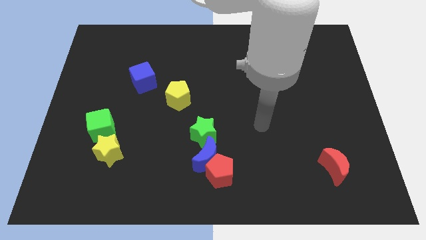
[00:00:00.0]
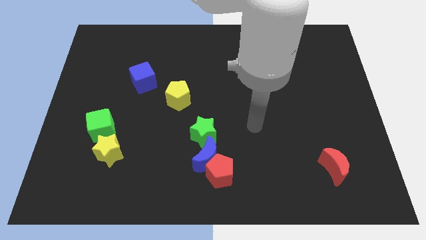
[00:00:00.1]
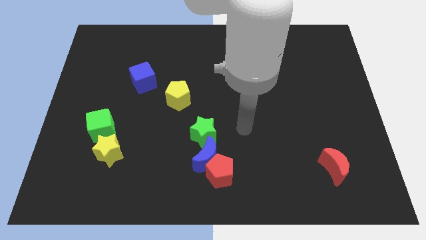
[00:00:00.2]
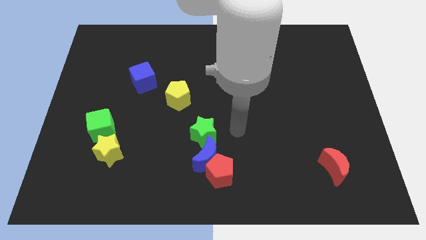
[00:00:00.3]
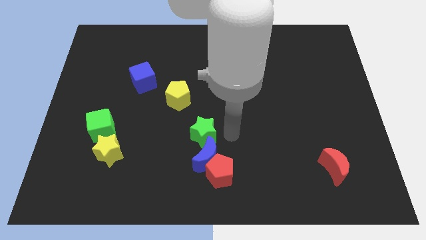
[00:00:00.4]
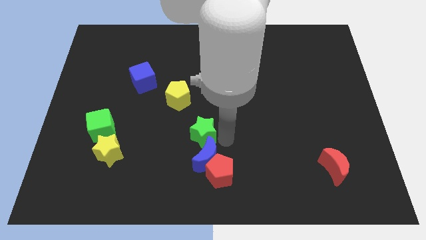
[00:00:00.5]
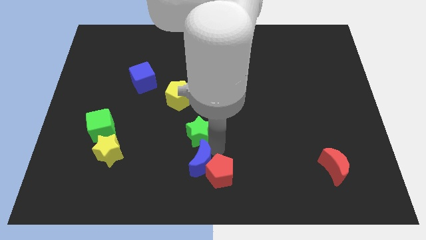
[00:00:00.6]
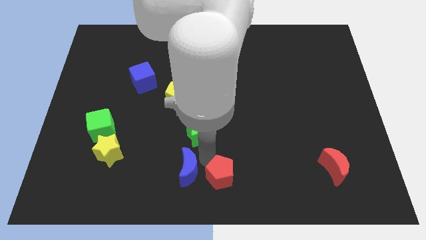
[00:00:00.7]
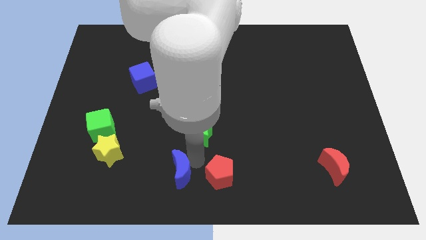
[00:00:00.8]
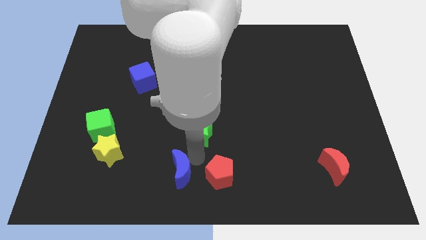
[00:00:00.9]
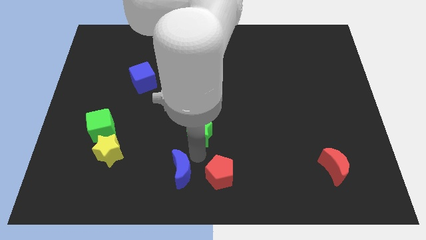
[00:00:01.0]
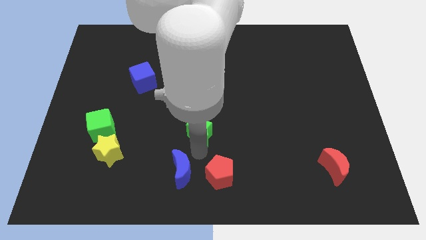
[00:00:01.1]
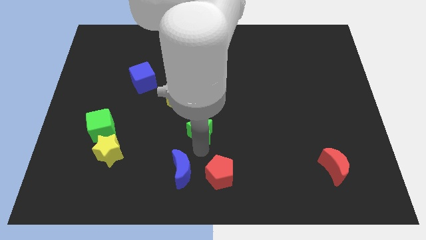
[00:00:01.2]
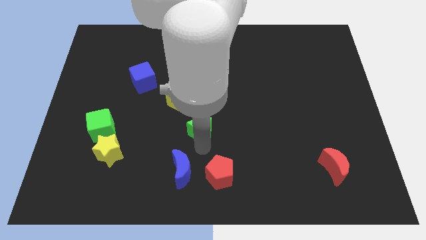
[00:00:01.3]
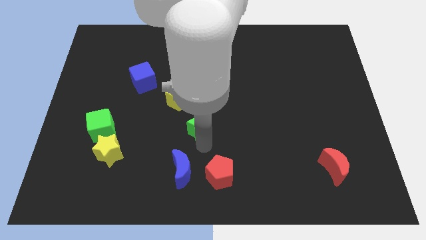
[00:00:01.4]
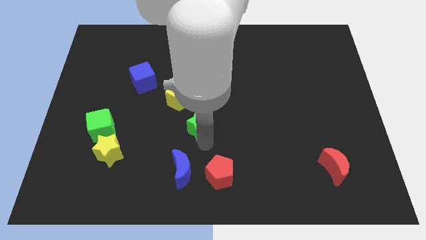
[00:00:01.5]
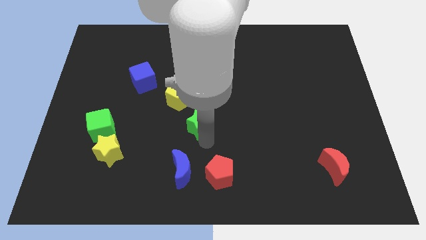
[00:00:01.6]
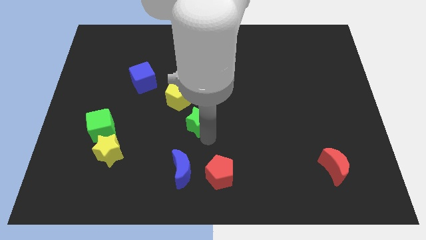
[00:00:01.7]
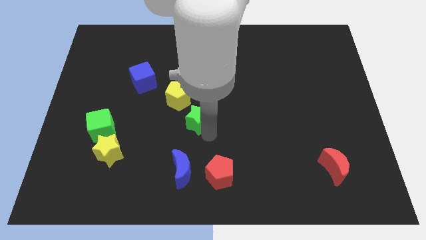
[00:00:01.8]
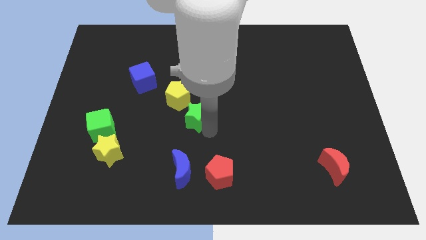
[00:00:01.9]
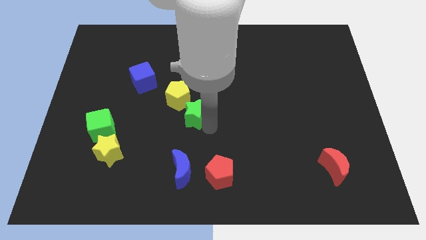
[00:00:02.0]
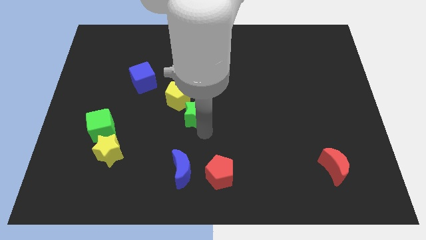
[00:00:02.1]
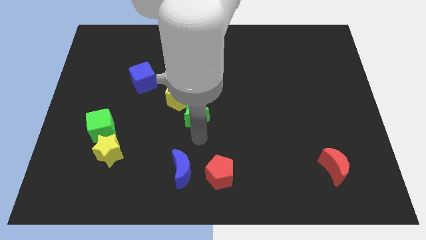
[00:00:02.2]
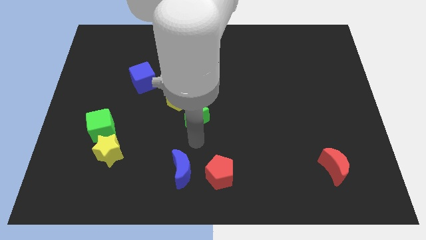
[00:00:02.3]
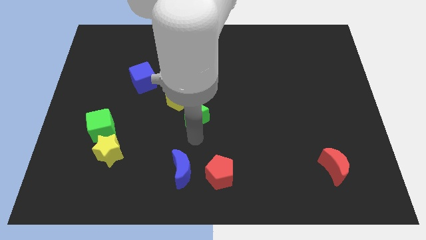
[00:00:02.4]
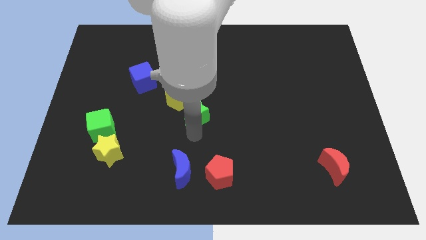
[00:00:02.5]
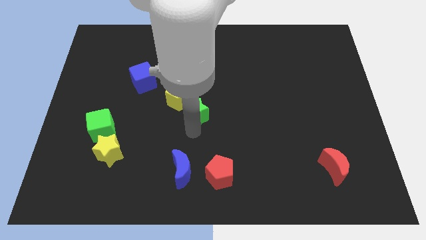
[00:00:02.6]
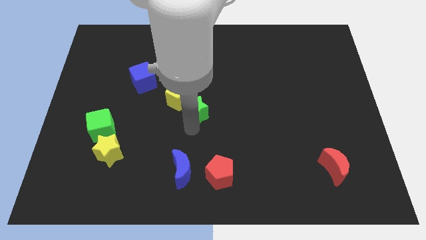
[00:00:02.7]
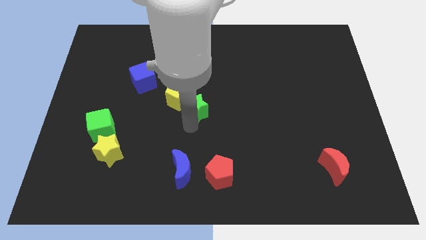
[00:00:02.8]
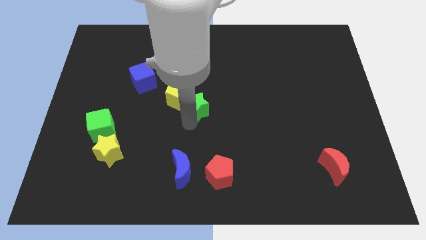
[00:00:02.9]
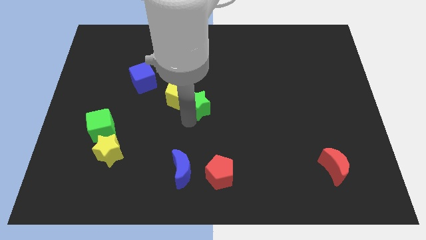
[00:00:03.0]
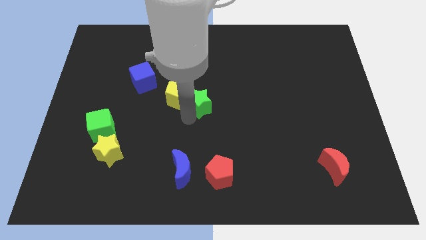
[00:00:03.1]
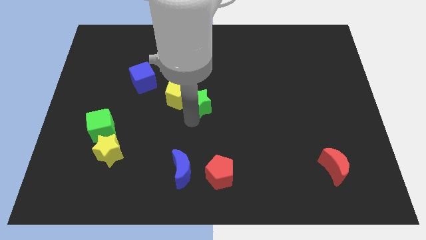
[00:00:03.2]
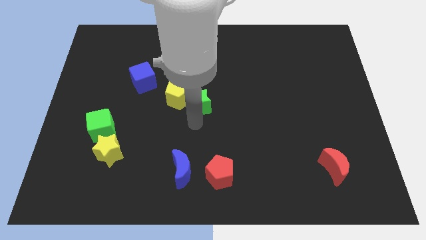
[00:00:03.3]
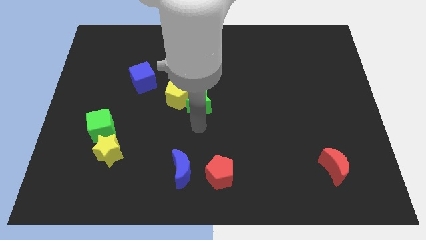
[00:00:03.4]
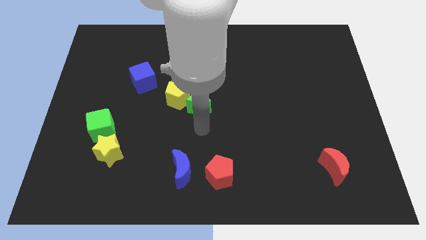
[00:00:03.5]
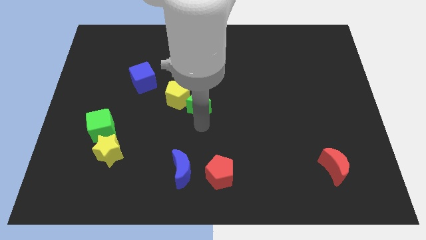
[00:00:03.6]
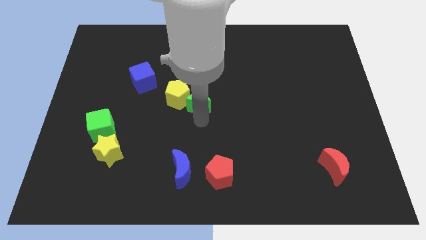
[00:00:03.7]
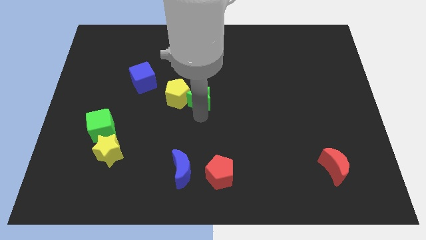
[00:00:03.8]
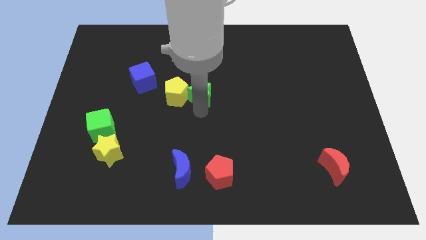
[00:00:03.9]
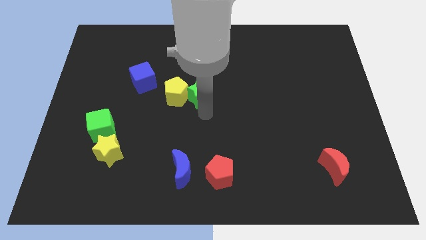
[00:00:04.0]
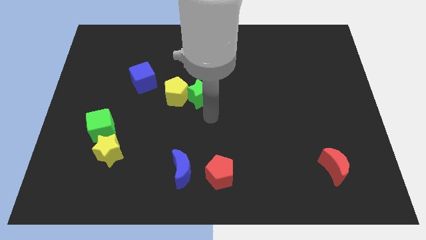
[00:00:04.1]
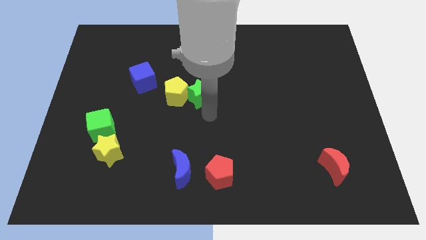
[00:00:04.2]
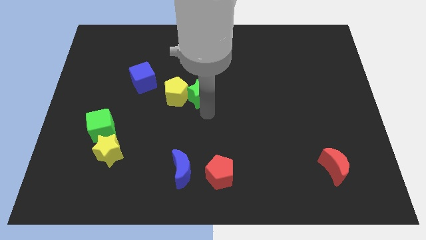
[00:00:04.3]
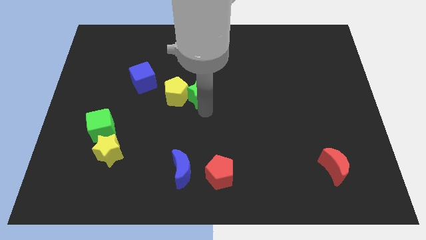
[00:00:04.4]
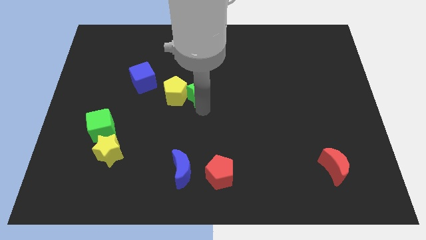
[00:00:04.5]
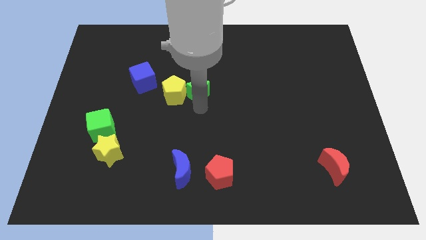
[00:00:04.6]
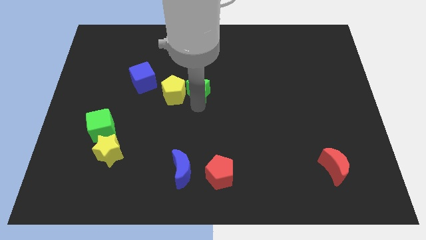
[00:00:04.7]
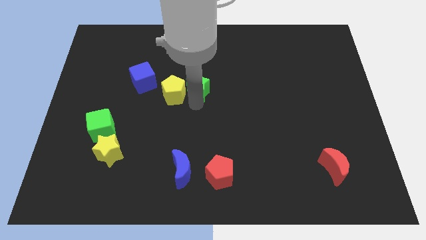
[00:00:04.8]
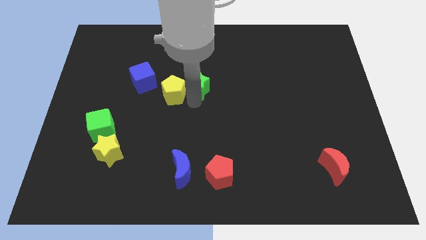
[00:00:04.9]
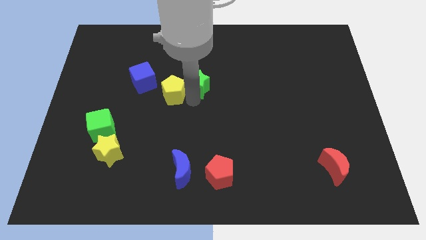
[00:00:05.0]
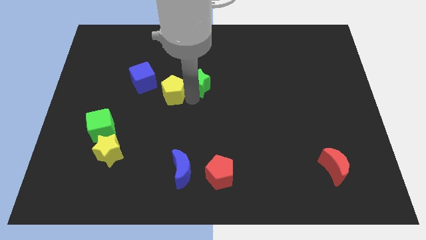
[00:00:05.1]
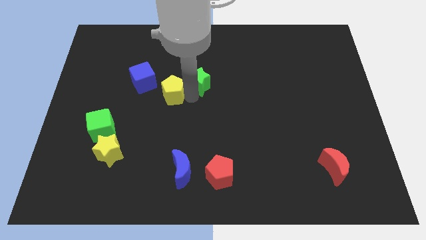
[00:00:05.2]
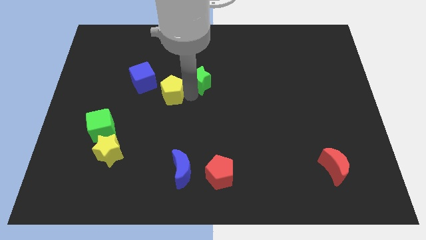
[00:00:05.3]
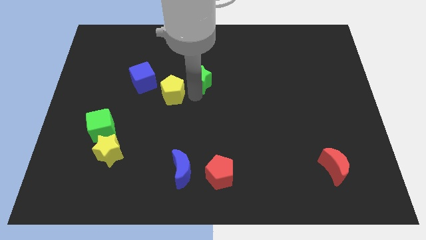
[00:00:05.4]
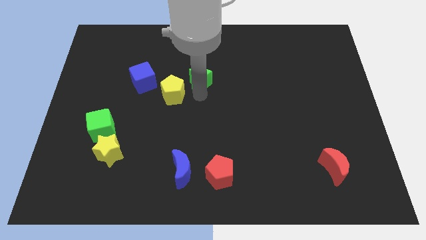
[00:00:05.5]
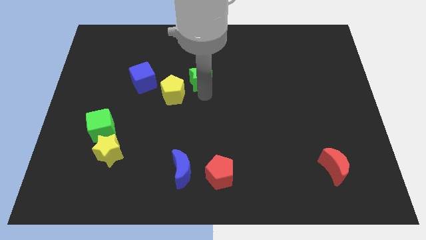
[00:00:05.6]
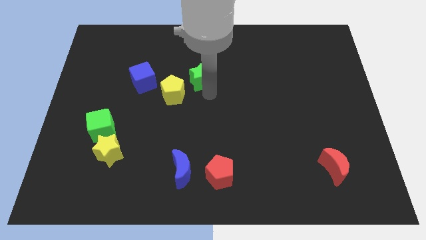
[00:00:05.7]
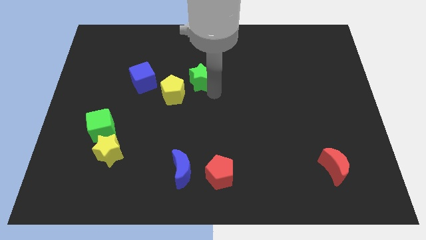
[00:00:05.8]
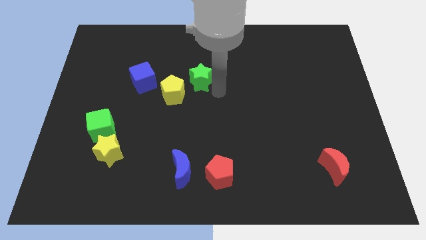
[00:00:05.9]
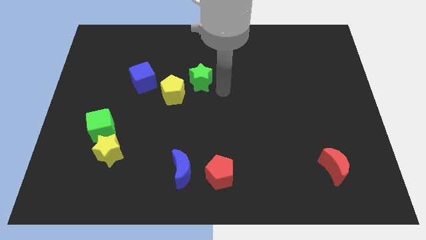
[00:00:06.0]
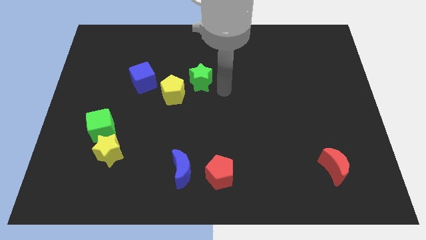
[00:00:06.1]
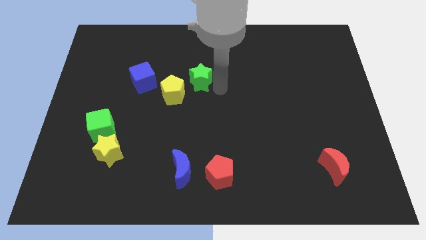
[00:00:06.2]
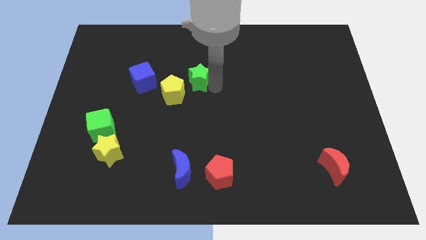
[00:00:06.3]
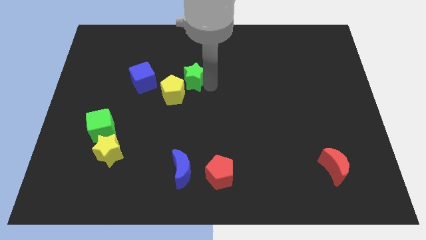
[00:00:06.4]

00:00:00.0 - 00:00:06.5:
move the green star to the top side of the yellow pentagon

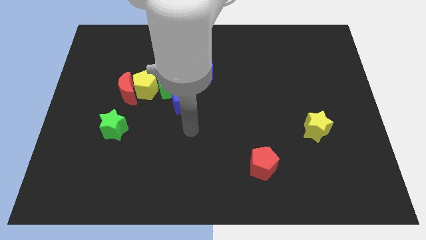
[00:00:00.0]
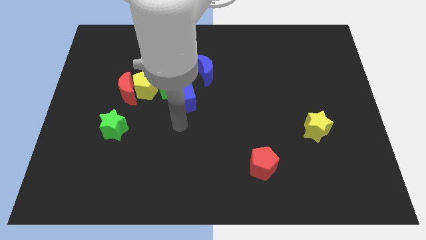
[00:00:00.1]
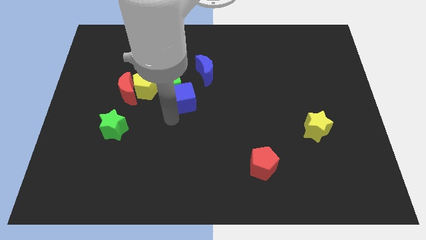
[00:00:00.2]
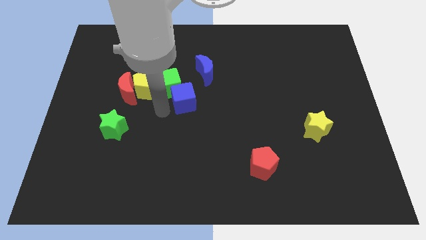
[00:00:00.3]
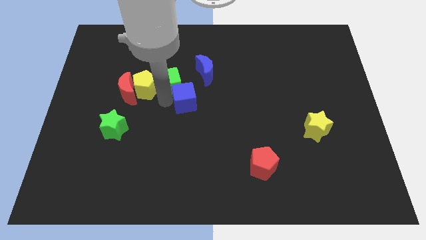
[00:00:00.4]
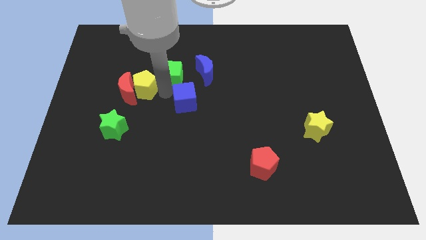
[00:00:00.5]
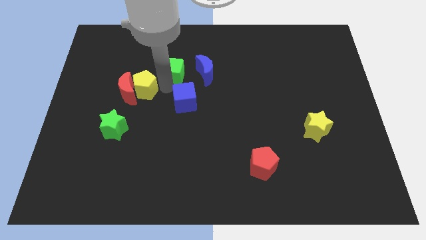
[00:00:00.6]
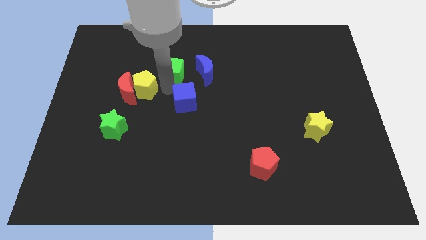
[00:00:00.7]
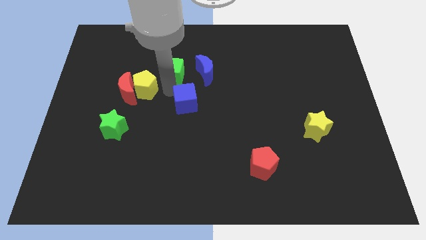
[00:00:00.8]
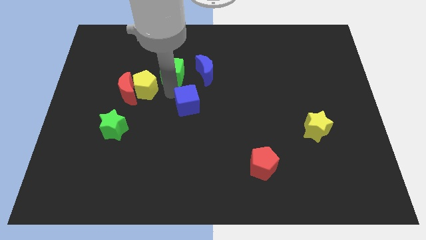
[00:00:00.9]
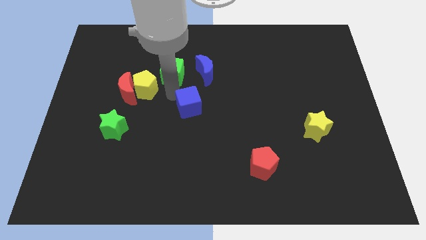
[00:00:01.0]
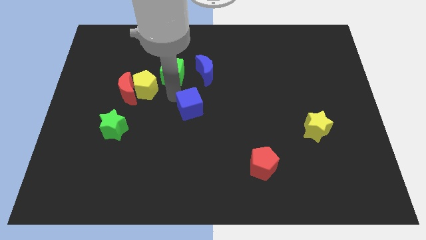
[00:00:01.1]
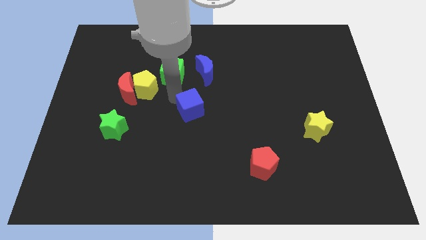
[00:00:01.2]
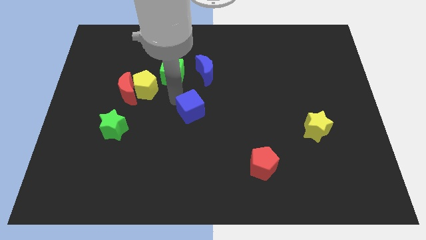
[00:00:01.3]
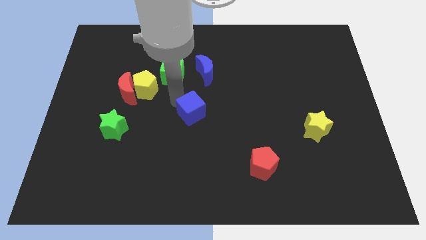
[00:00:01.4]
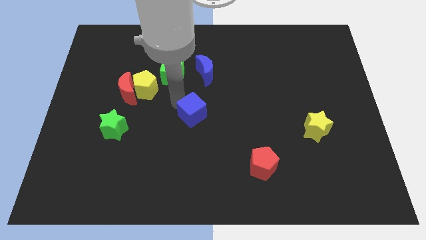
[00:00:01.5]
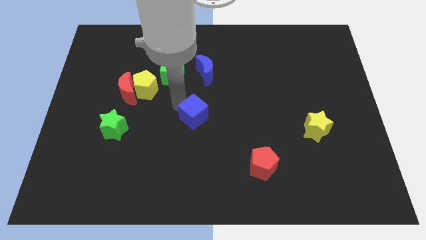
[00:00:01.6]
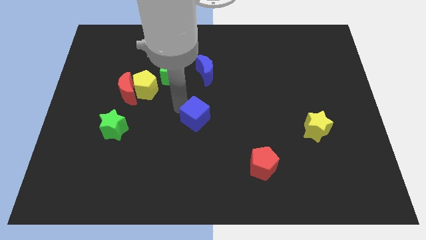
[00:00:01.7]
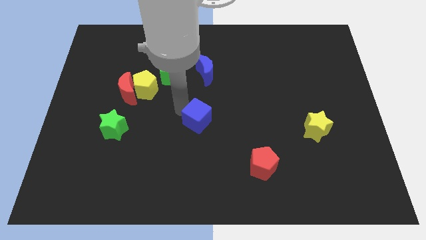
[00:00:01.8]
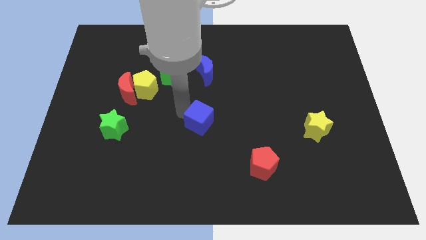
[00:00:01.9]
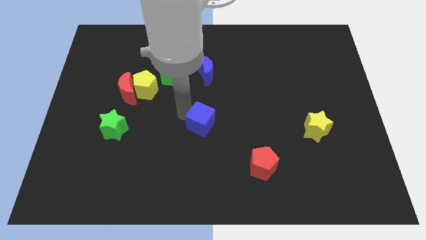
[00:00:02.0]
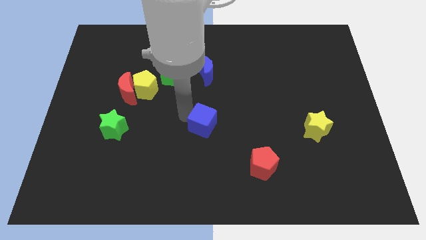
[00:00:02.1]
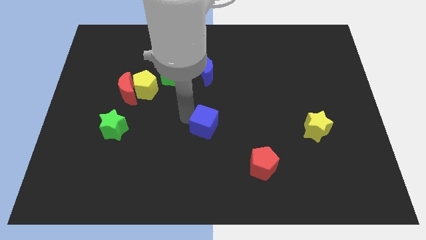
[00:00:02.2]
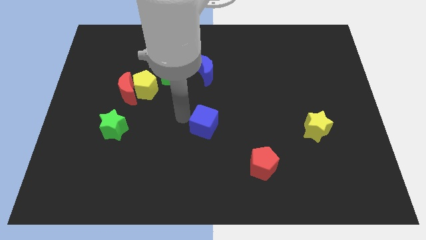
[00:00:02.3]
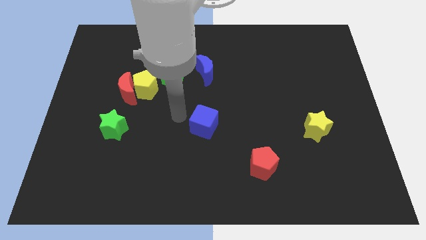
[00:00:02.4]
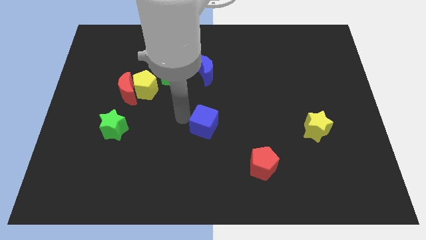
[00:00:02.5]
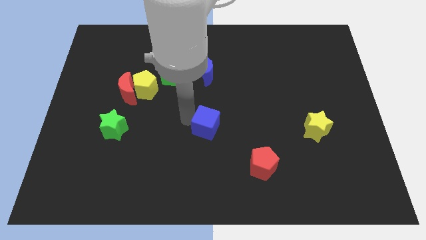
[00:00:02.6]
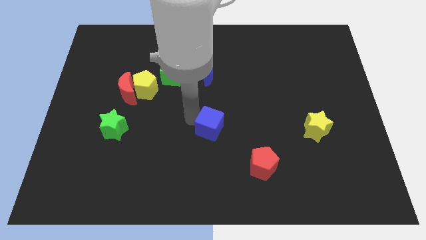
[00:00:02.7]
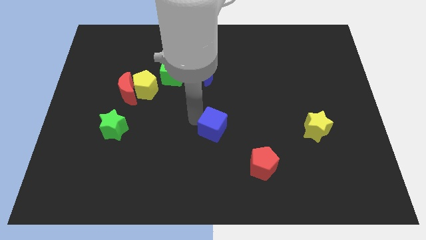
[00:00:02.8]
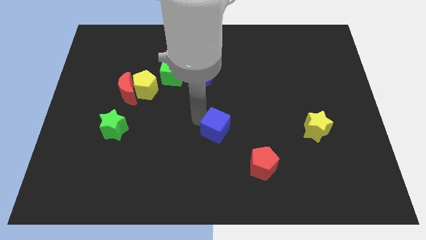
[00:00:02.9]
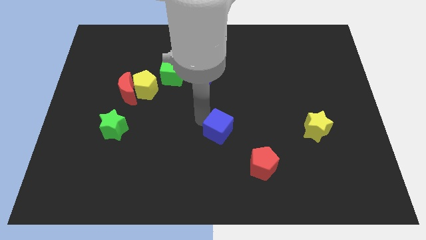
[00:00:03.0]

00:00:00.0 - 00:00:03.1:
push the blue cube to the top left of the red pentagon
